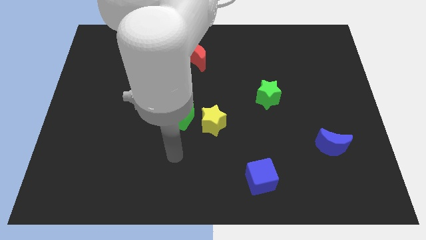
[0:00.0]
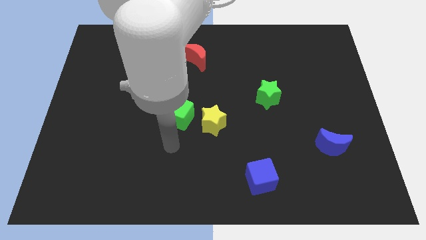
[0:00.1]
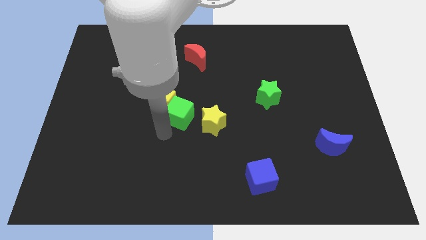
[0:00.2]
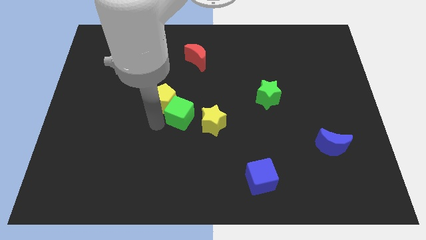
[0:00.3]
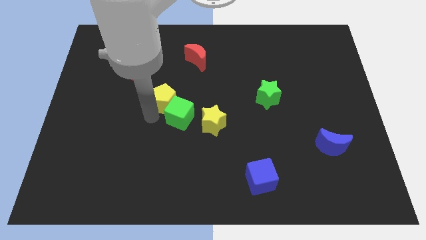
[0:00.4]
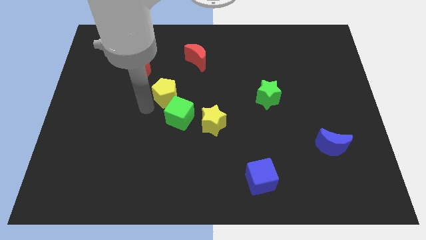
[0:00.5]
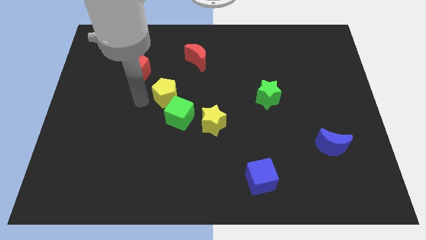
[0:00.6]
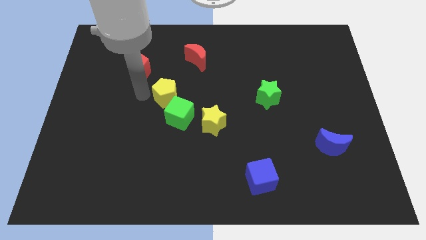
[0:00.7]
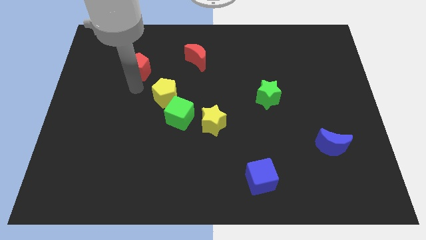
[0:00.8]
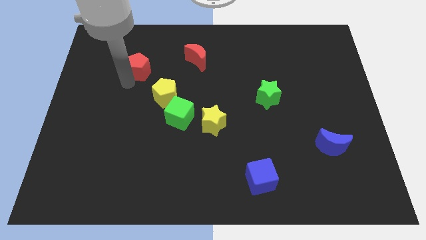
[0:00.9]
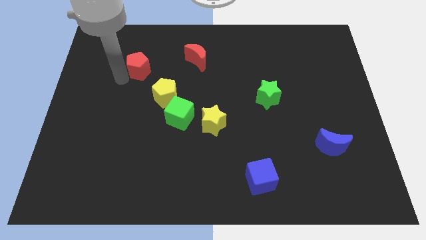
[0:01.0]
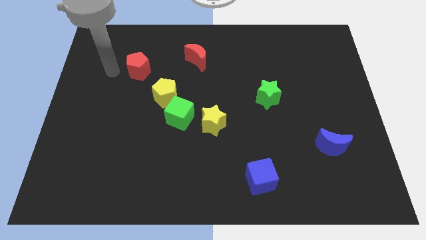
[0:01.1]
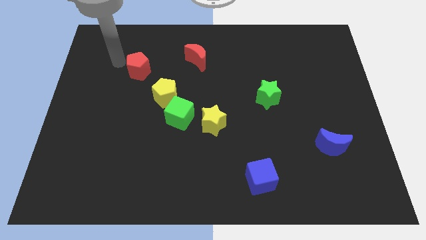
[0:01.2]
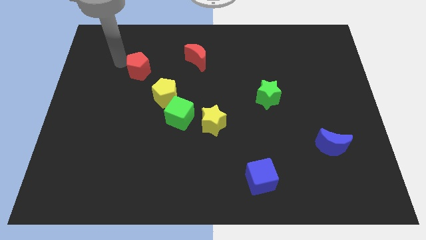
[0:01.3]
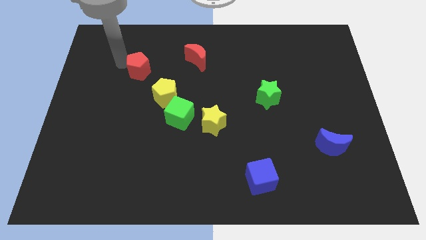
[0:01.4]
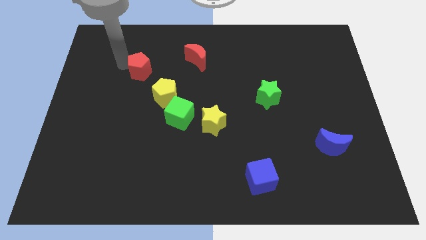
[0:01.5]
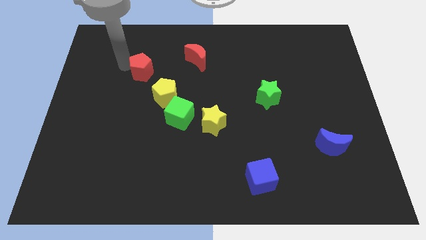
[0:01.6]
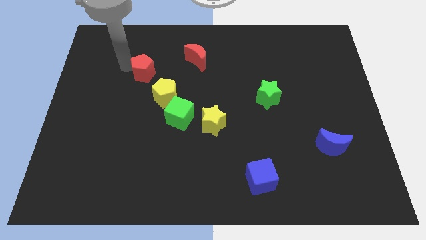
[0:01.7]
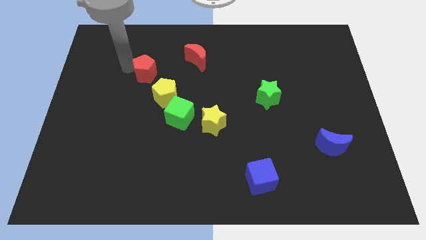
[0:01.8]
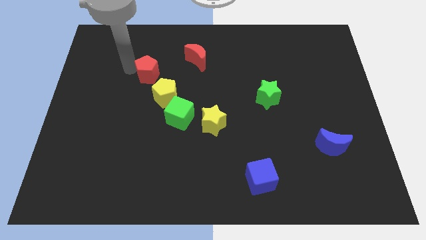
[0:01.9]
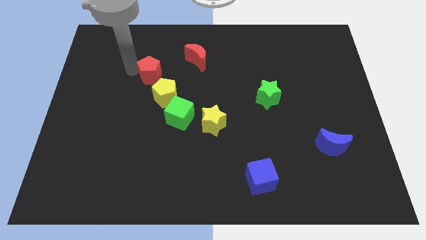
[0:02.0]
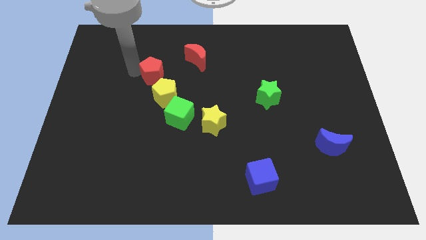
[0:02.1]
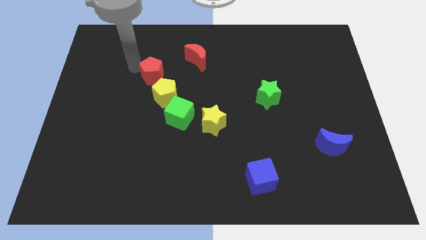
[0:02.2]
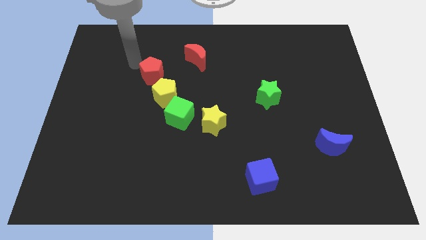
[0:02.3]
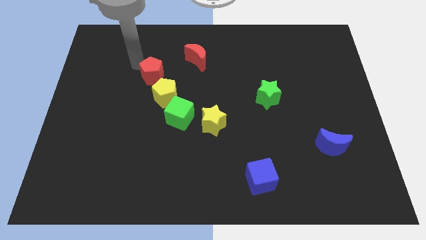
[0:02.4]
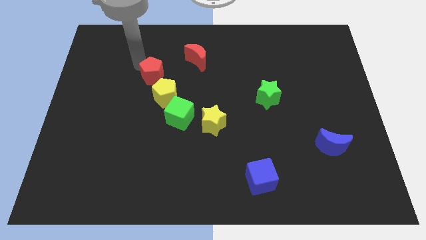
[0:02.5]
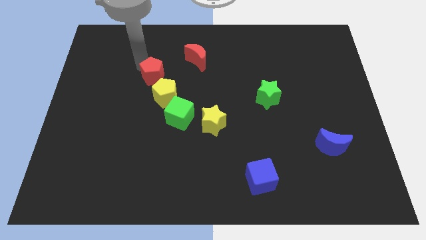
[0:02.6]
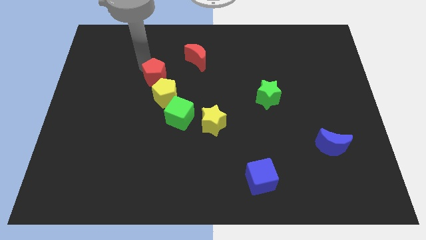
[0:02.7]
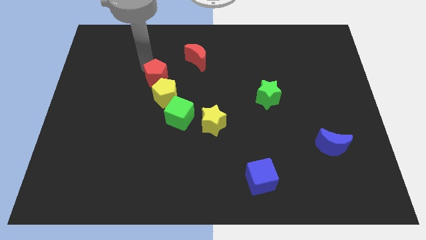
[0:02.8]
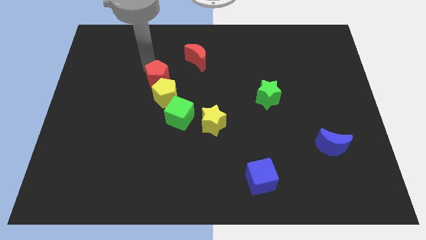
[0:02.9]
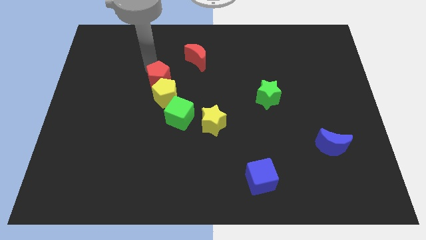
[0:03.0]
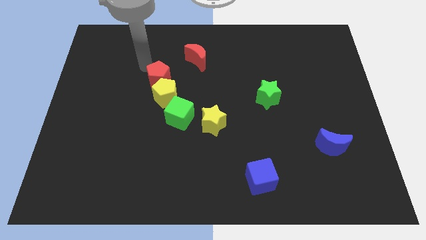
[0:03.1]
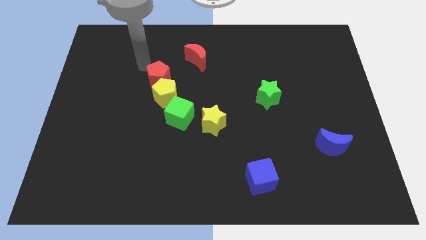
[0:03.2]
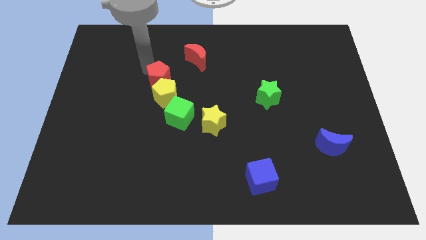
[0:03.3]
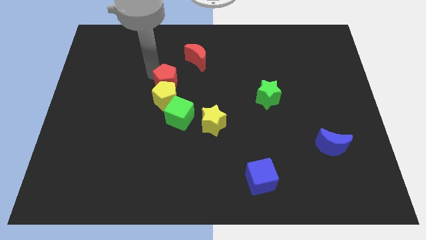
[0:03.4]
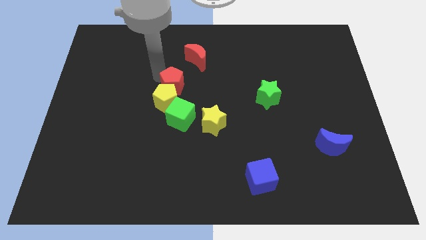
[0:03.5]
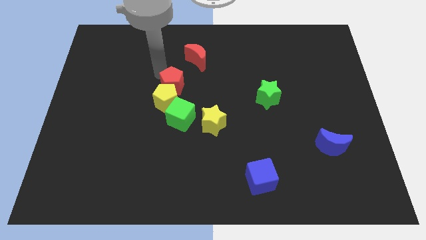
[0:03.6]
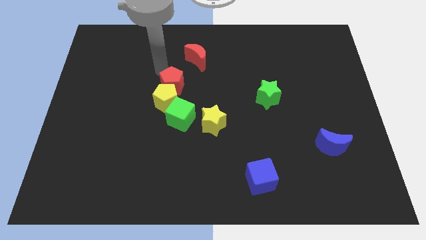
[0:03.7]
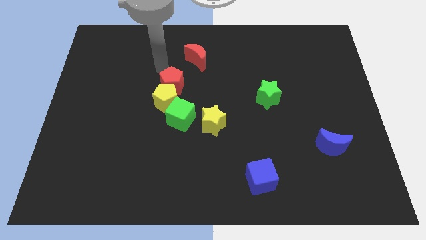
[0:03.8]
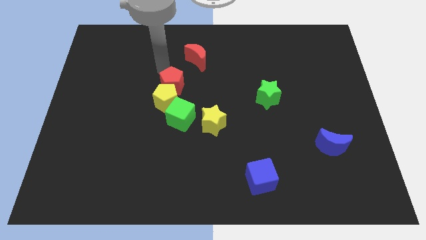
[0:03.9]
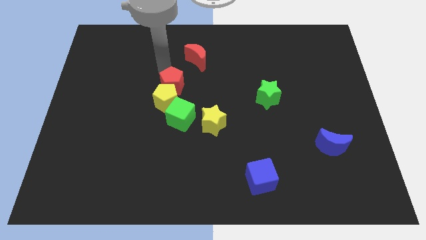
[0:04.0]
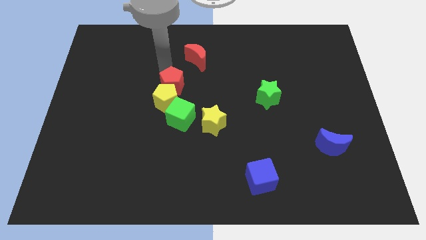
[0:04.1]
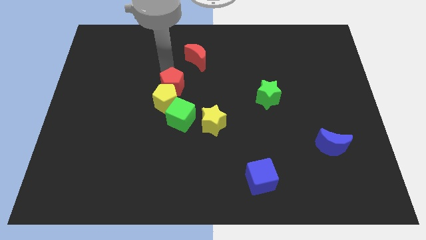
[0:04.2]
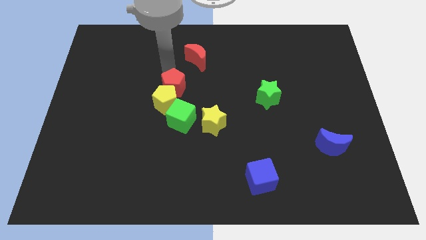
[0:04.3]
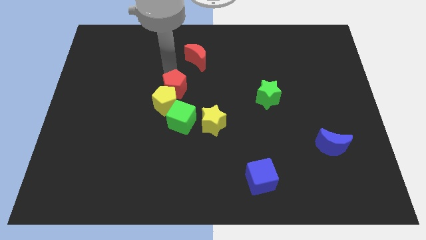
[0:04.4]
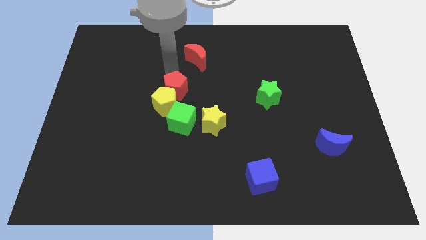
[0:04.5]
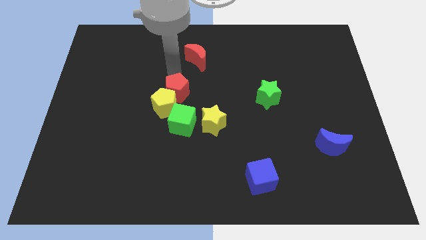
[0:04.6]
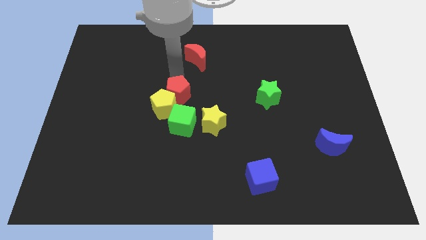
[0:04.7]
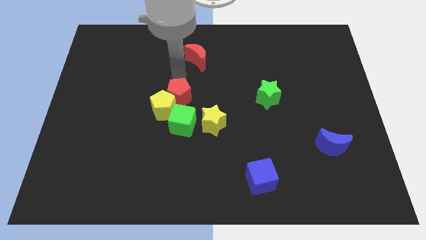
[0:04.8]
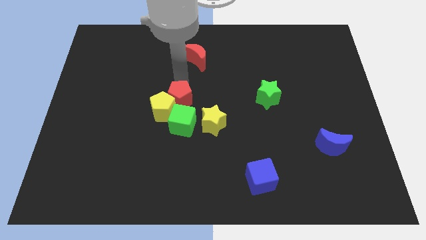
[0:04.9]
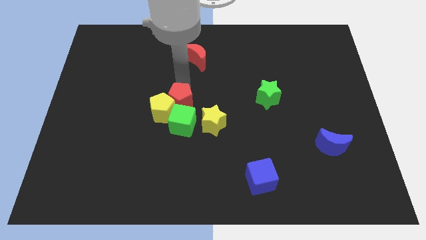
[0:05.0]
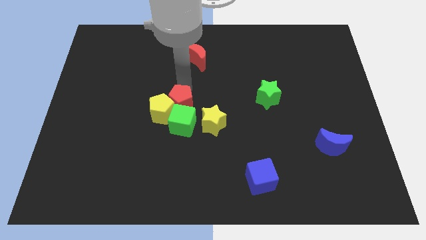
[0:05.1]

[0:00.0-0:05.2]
move the red pentagon towards the green cube

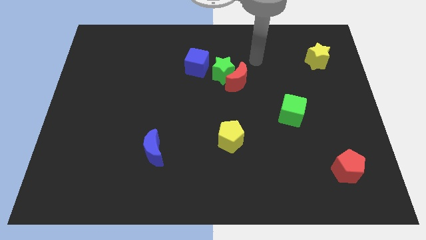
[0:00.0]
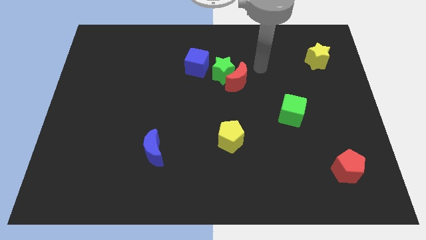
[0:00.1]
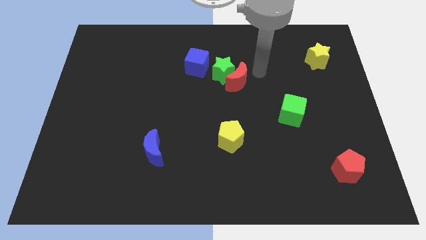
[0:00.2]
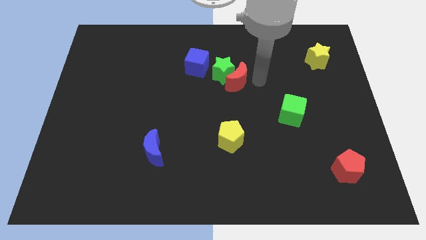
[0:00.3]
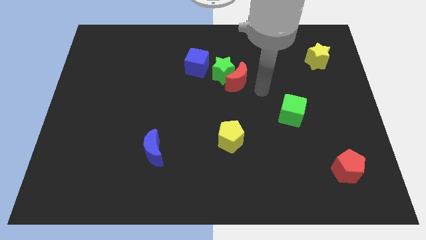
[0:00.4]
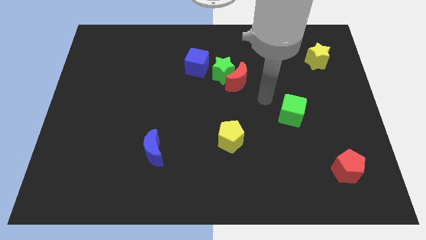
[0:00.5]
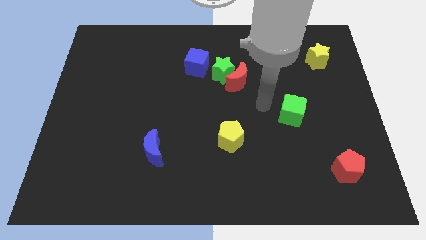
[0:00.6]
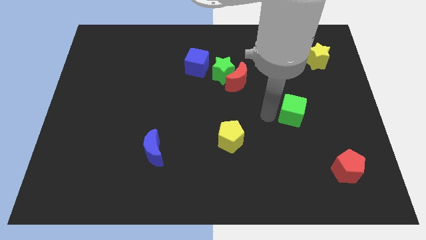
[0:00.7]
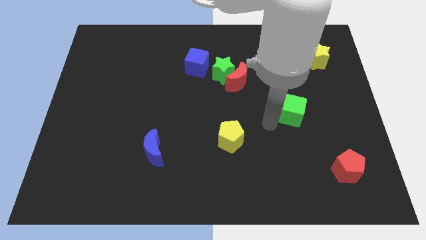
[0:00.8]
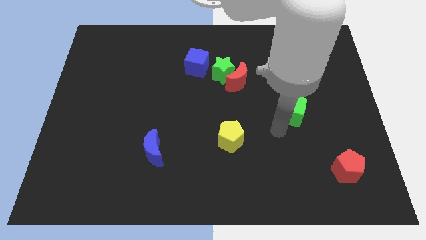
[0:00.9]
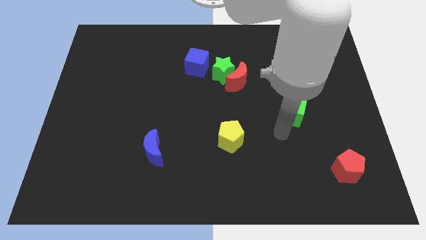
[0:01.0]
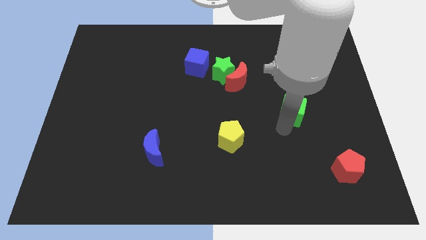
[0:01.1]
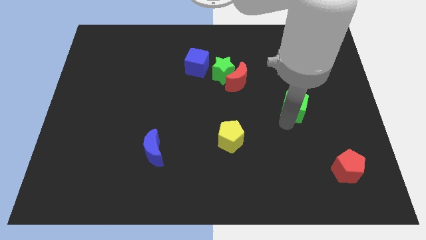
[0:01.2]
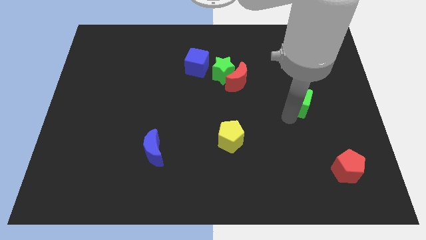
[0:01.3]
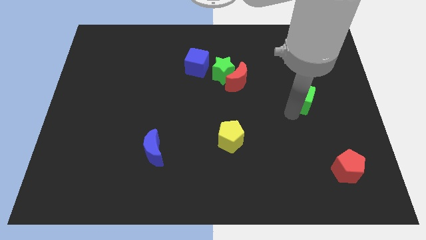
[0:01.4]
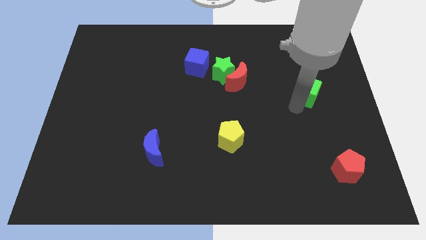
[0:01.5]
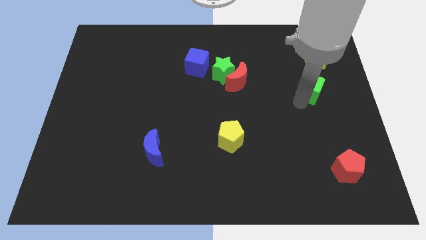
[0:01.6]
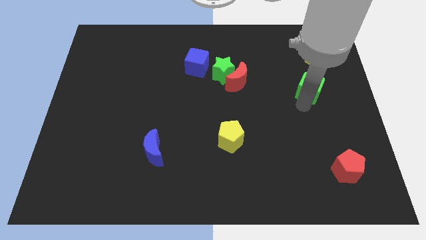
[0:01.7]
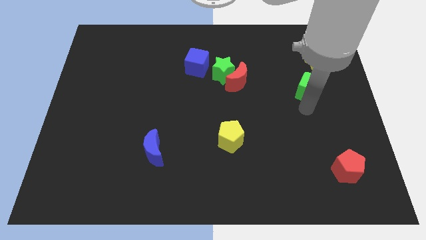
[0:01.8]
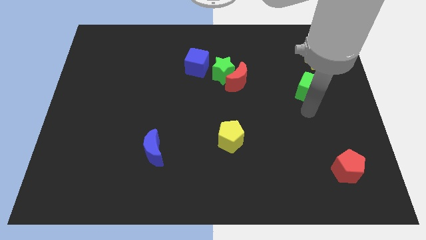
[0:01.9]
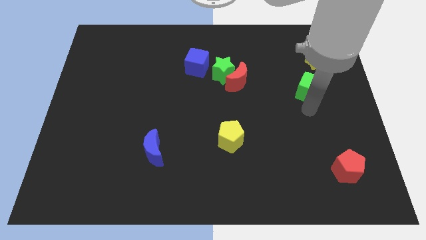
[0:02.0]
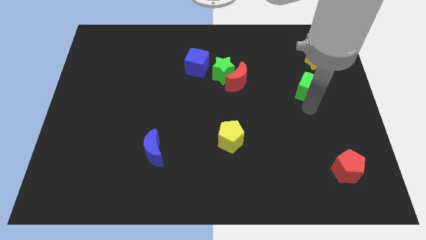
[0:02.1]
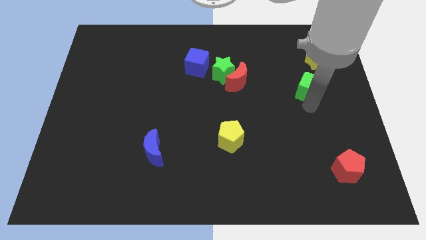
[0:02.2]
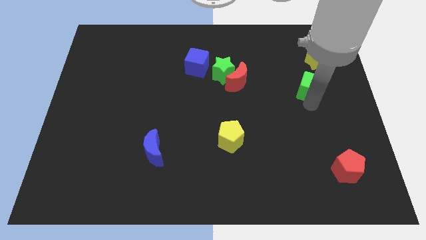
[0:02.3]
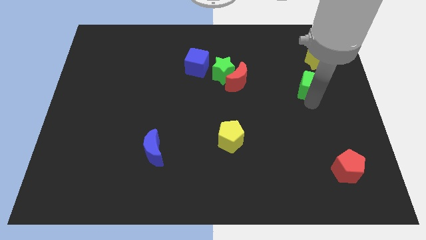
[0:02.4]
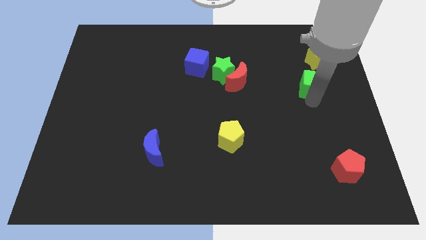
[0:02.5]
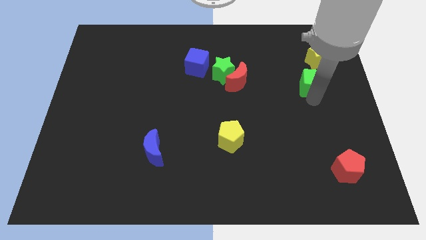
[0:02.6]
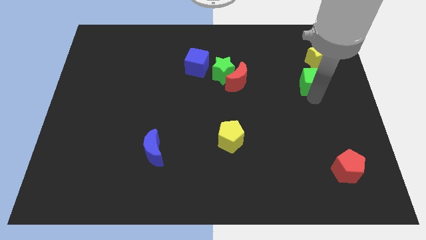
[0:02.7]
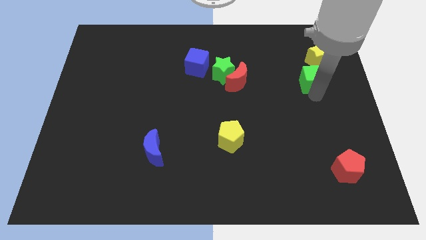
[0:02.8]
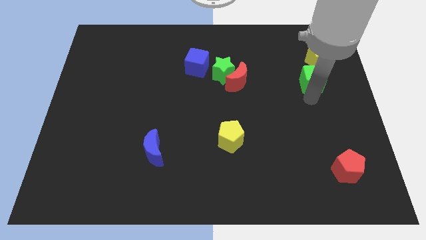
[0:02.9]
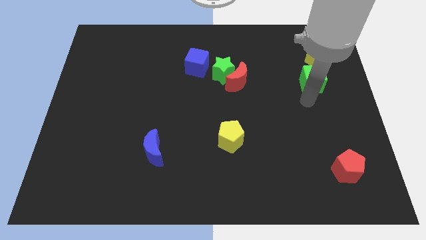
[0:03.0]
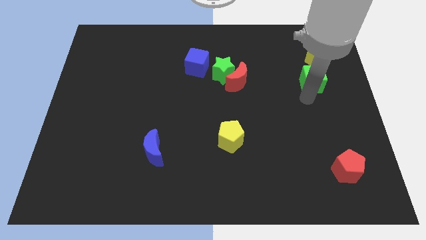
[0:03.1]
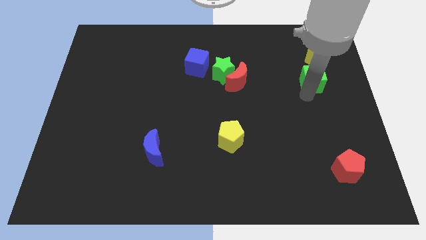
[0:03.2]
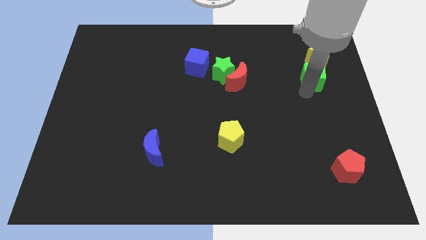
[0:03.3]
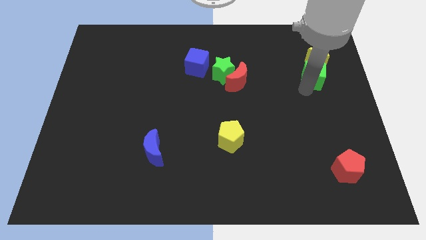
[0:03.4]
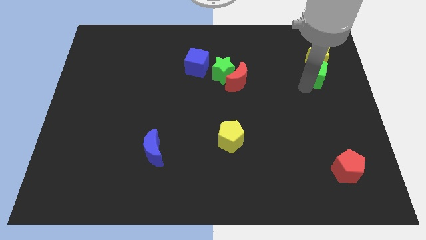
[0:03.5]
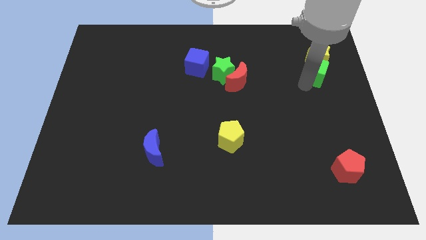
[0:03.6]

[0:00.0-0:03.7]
slide the green cube close to the yellow star
